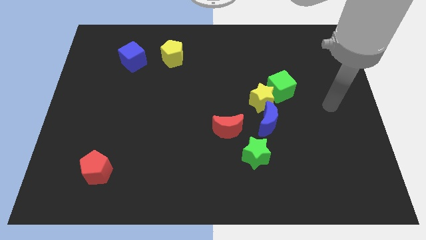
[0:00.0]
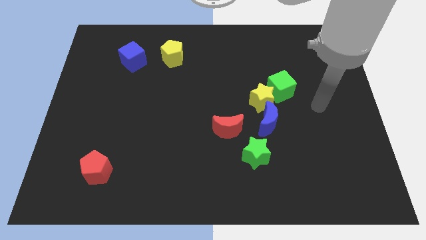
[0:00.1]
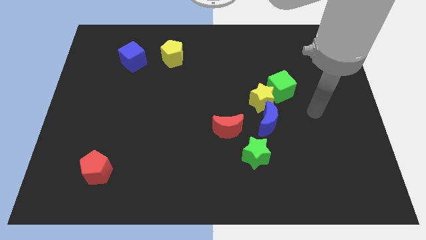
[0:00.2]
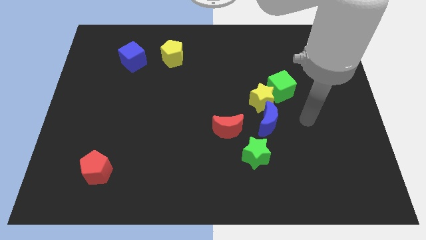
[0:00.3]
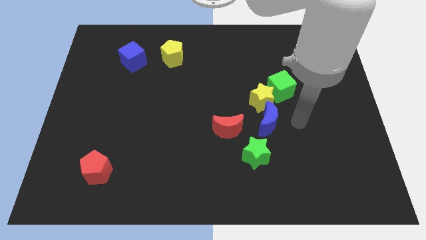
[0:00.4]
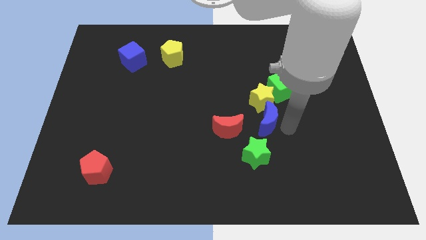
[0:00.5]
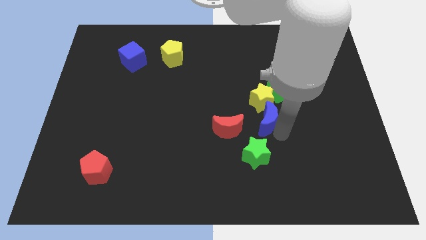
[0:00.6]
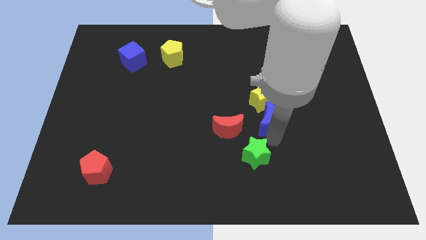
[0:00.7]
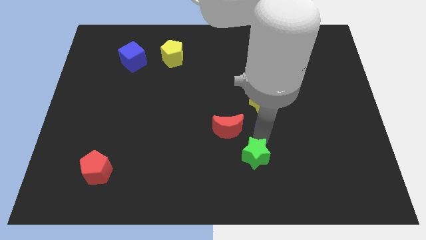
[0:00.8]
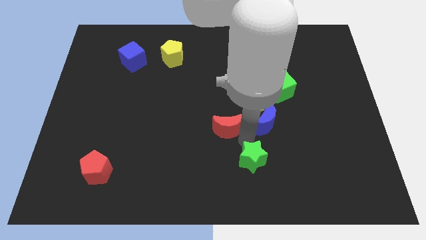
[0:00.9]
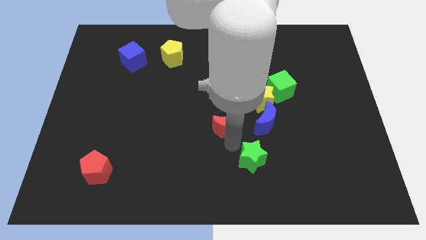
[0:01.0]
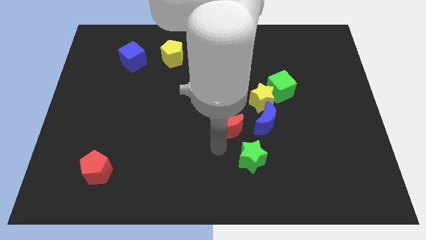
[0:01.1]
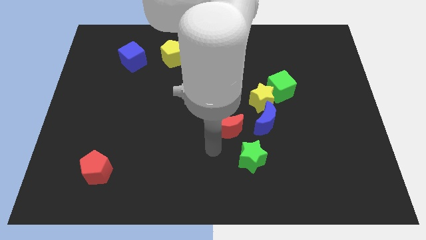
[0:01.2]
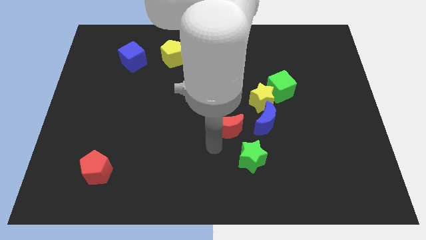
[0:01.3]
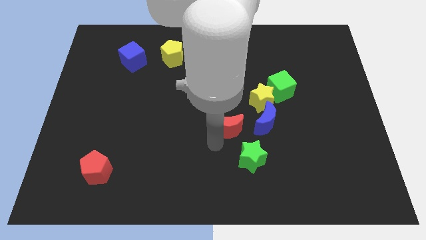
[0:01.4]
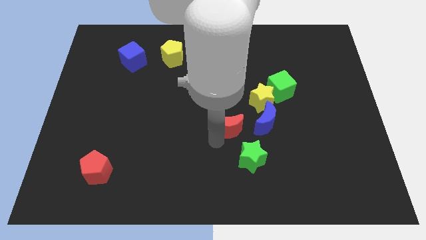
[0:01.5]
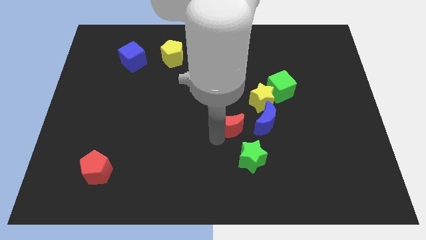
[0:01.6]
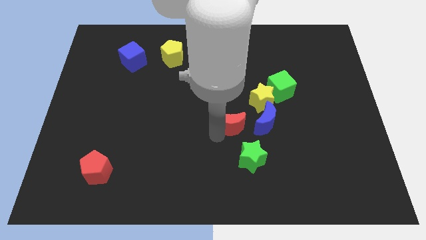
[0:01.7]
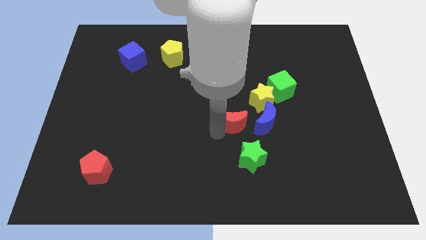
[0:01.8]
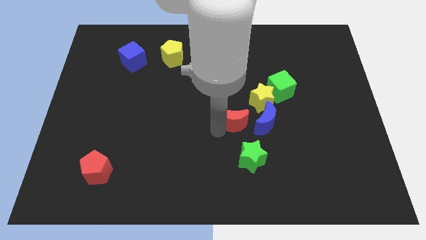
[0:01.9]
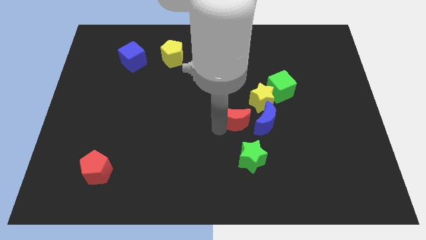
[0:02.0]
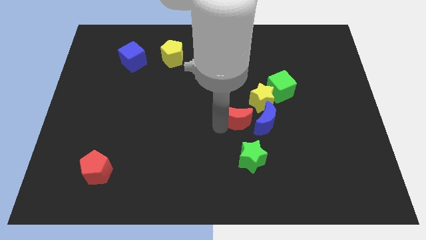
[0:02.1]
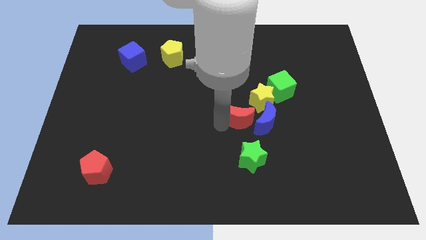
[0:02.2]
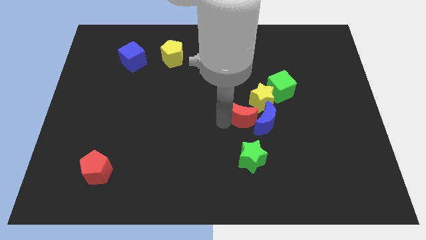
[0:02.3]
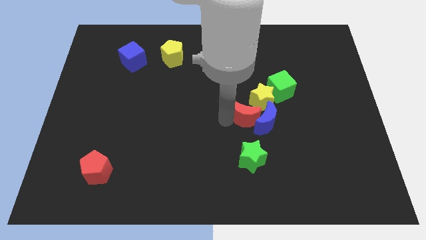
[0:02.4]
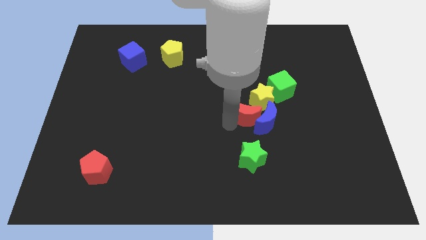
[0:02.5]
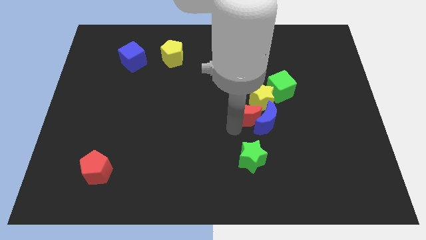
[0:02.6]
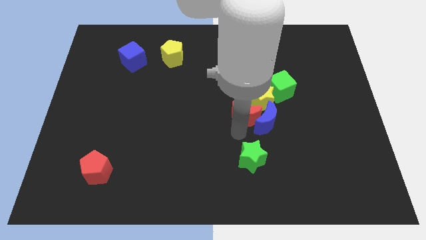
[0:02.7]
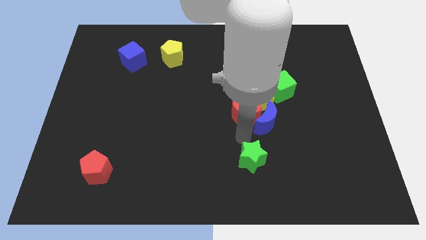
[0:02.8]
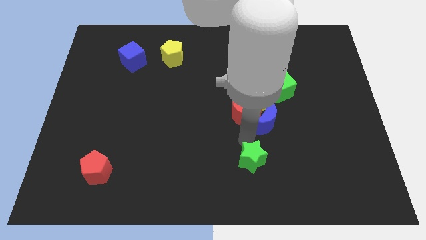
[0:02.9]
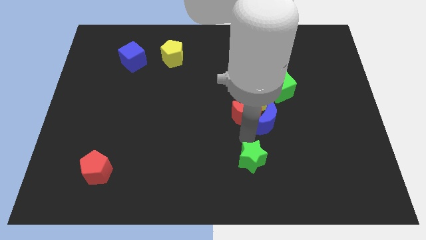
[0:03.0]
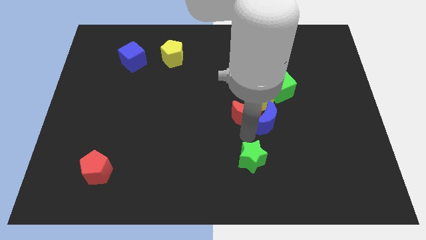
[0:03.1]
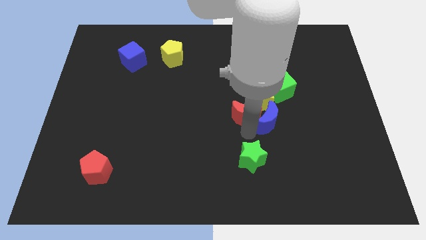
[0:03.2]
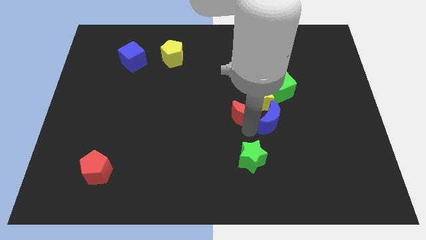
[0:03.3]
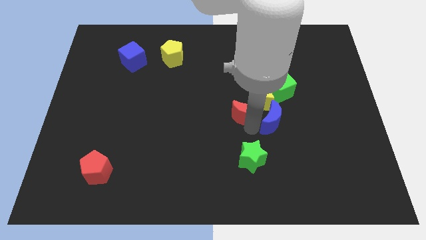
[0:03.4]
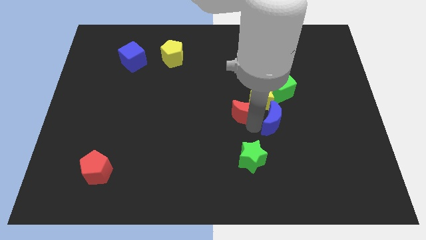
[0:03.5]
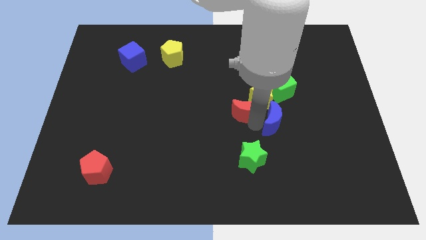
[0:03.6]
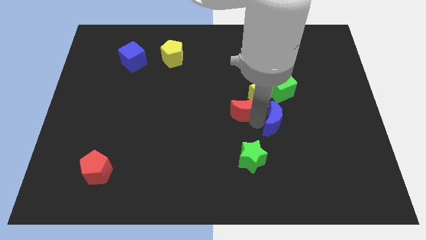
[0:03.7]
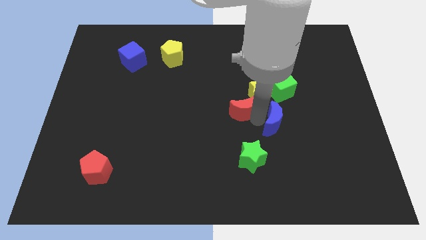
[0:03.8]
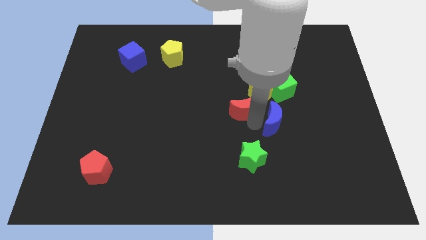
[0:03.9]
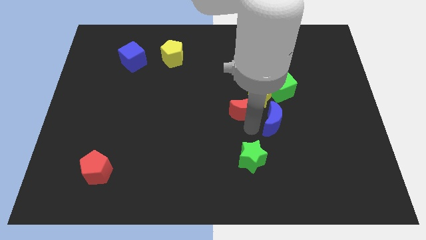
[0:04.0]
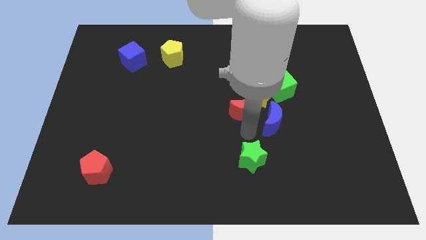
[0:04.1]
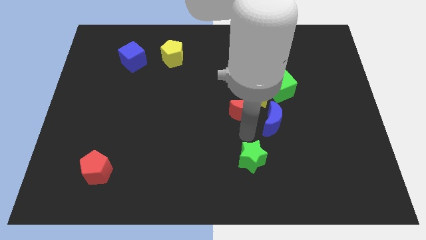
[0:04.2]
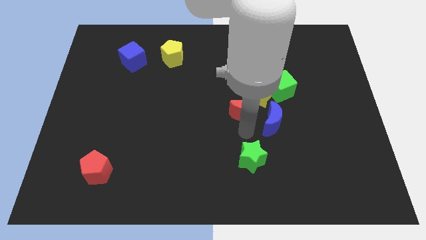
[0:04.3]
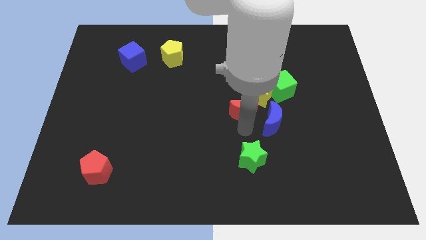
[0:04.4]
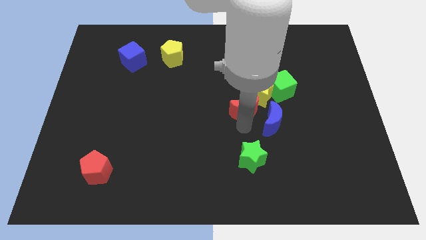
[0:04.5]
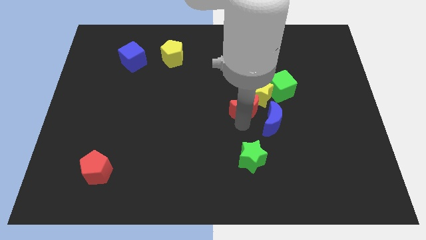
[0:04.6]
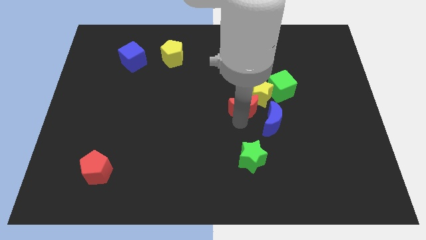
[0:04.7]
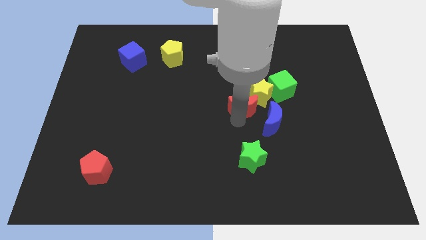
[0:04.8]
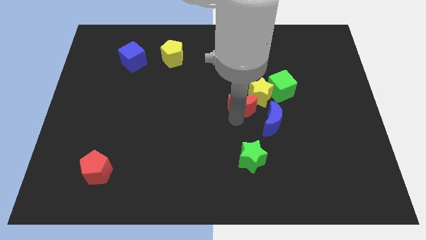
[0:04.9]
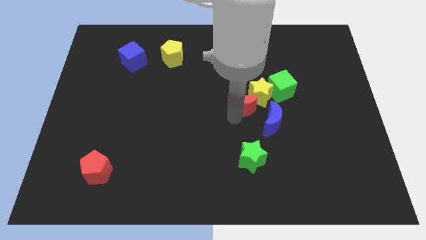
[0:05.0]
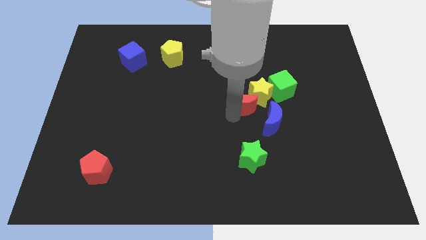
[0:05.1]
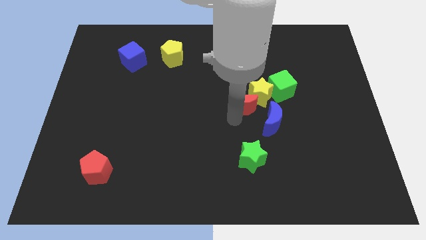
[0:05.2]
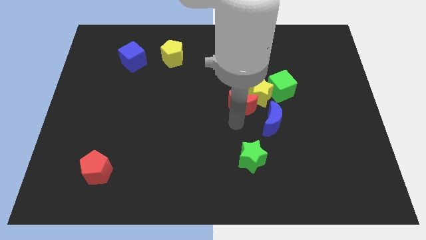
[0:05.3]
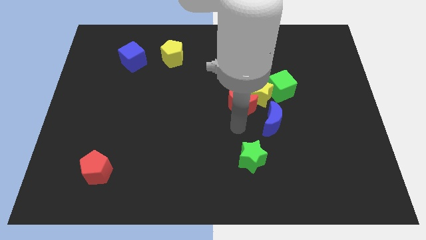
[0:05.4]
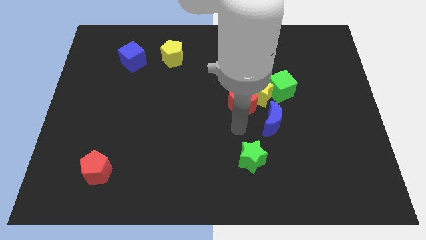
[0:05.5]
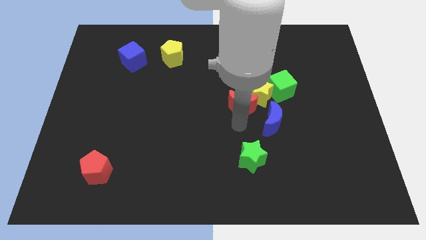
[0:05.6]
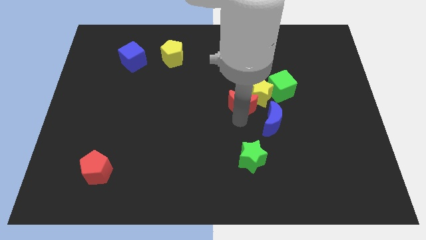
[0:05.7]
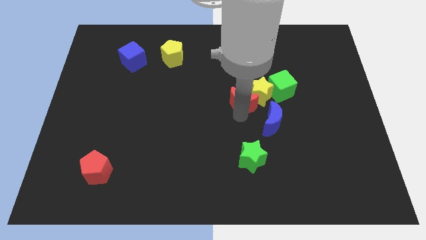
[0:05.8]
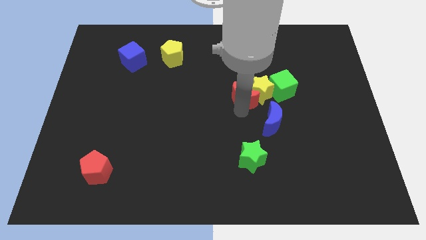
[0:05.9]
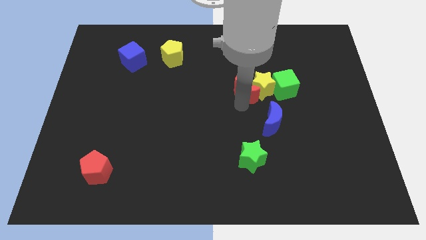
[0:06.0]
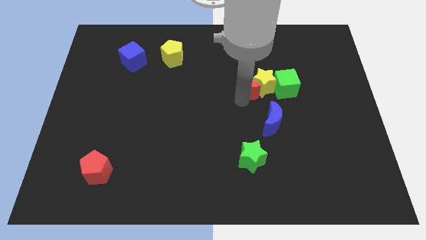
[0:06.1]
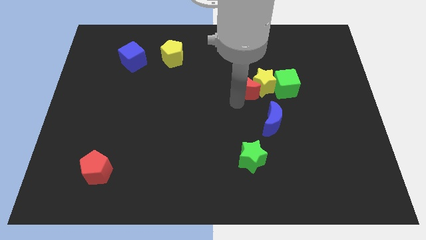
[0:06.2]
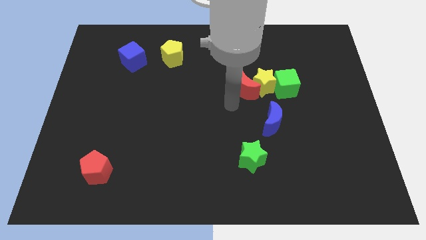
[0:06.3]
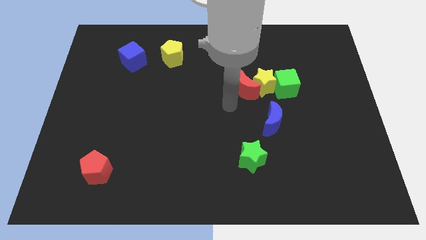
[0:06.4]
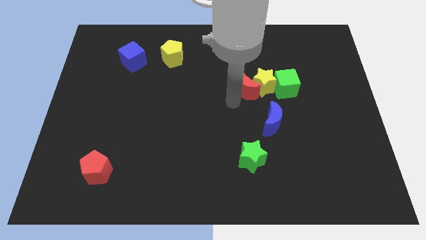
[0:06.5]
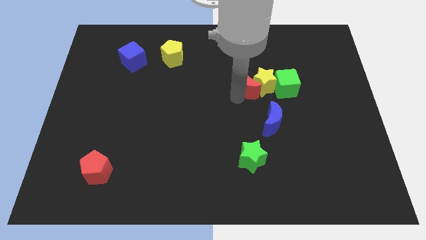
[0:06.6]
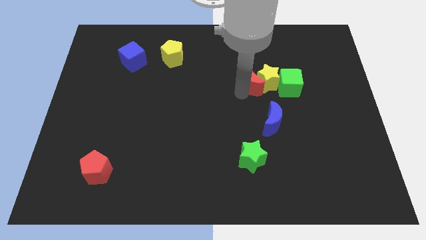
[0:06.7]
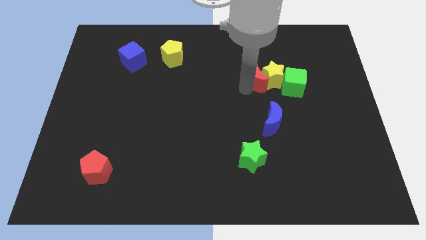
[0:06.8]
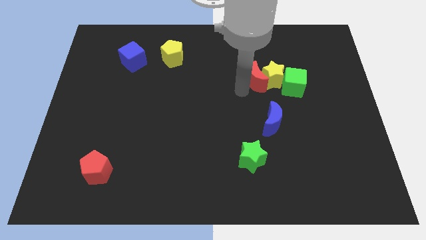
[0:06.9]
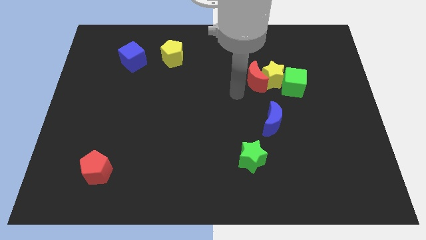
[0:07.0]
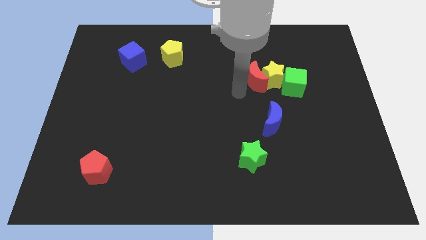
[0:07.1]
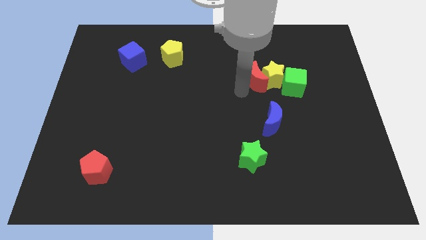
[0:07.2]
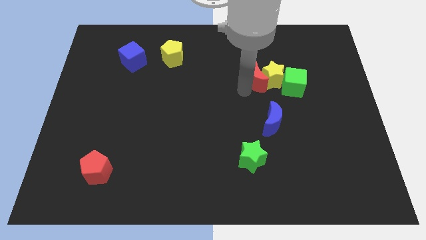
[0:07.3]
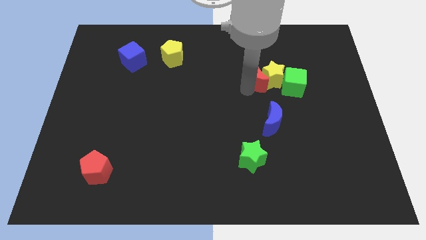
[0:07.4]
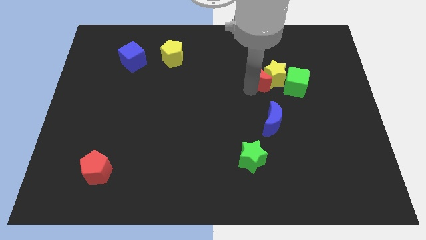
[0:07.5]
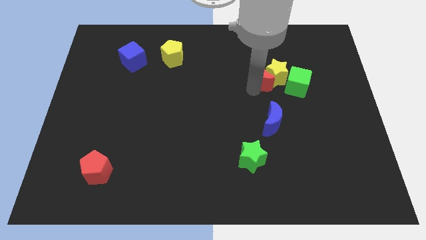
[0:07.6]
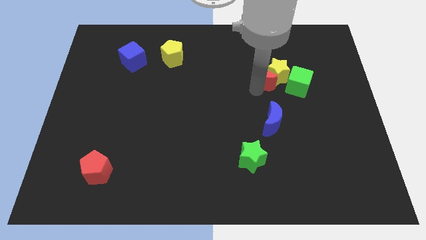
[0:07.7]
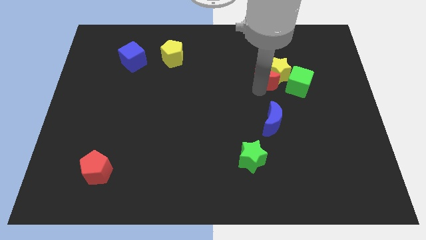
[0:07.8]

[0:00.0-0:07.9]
move the red moon to the top left side of the green cube
